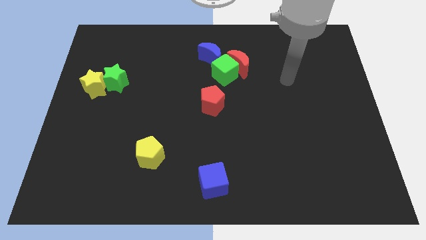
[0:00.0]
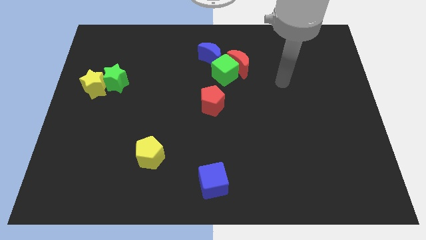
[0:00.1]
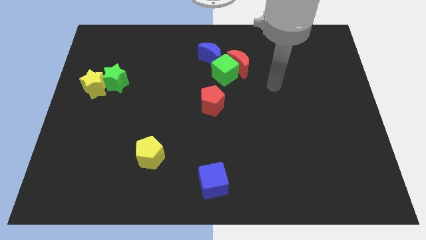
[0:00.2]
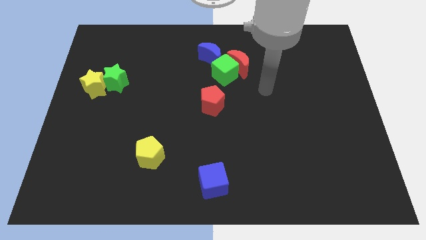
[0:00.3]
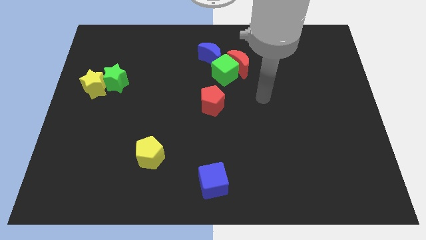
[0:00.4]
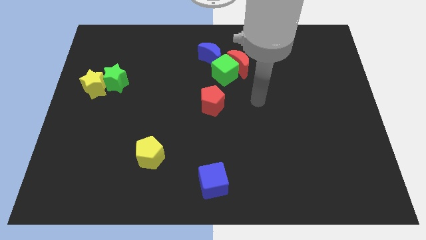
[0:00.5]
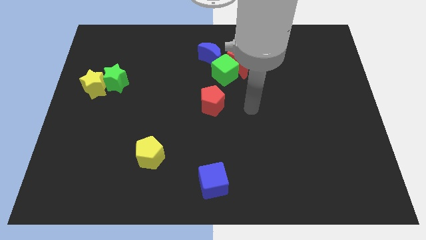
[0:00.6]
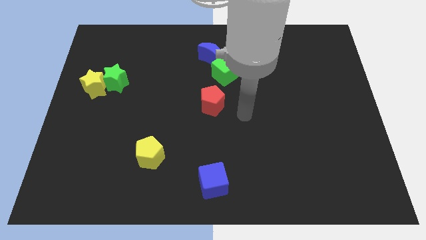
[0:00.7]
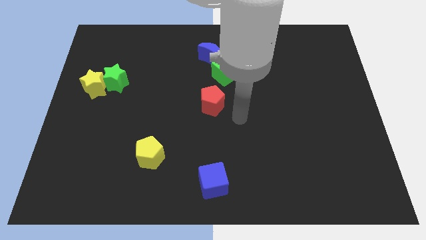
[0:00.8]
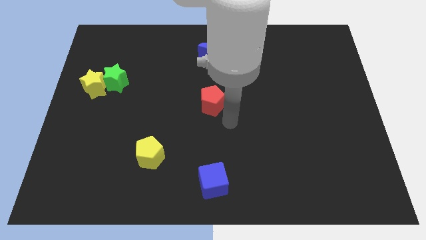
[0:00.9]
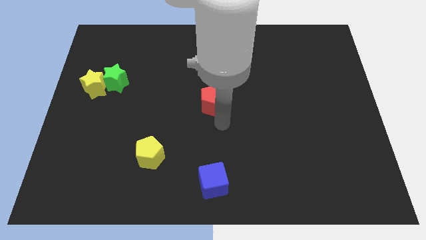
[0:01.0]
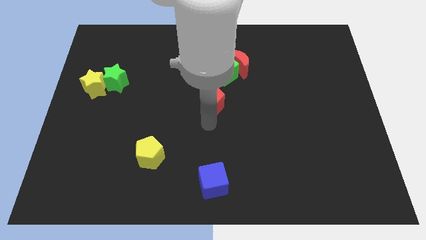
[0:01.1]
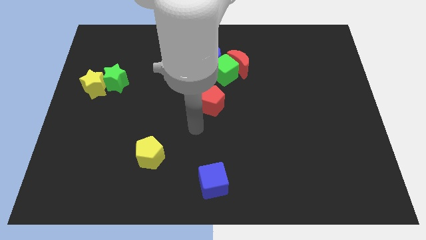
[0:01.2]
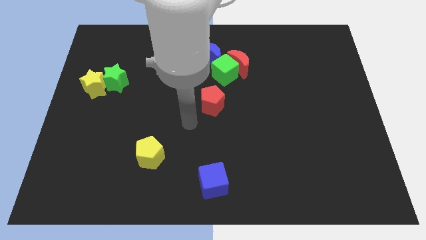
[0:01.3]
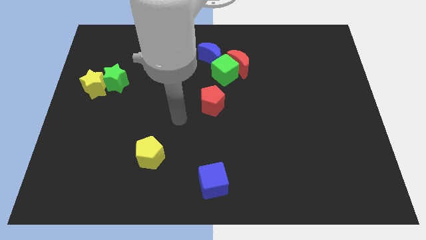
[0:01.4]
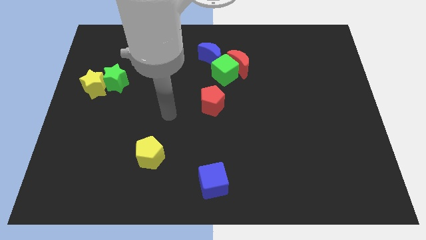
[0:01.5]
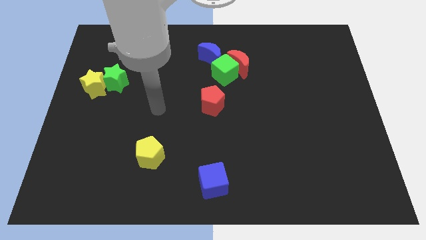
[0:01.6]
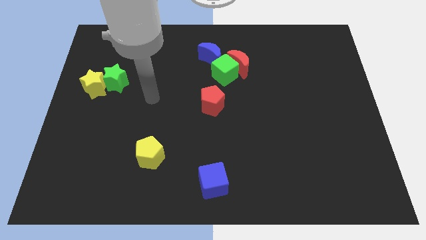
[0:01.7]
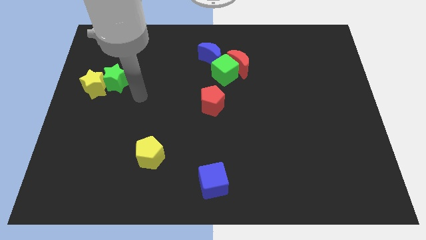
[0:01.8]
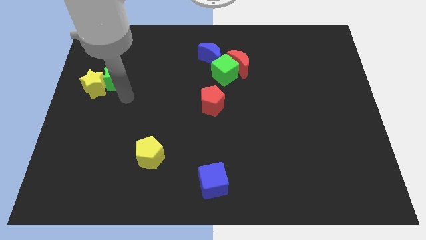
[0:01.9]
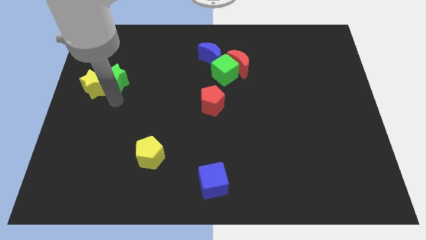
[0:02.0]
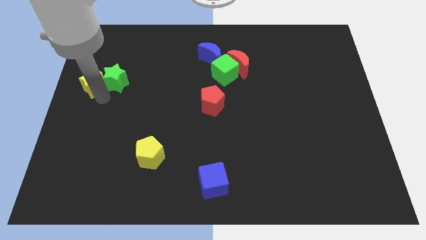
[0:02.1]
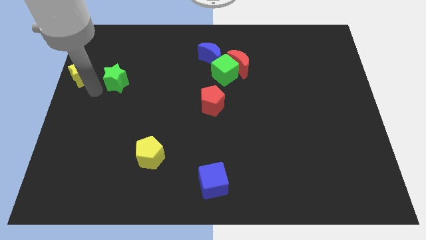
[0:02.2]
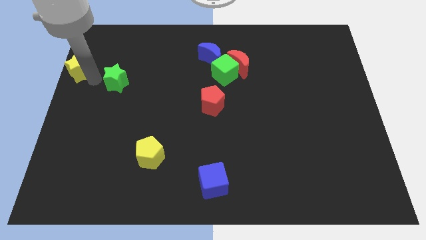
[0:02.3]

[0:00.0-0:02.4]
move the green star away from the yellow star

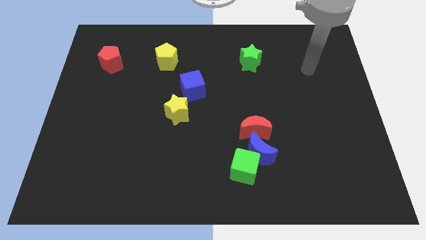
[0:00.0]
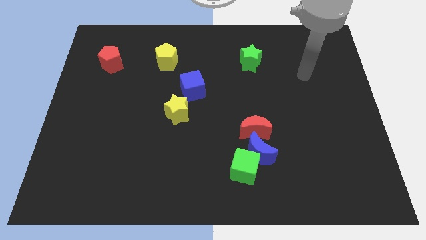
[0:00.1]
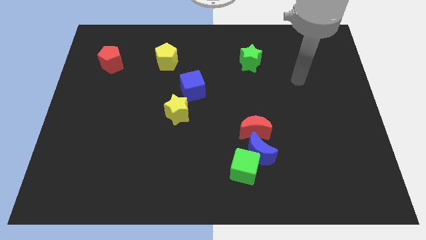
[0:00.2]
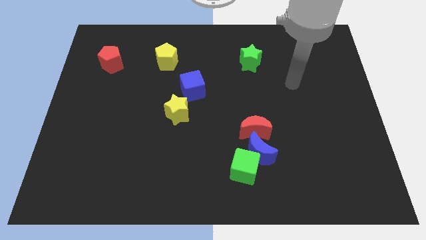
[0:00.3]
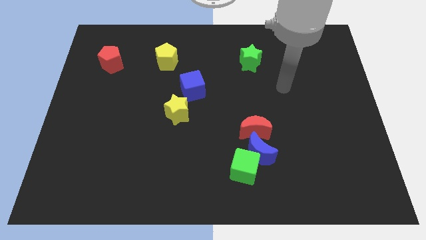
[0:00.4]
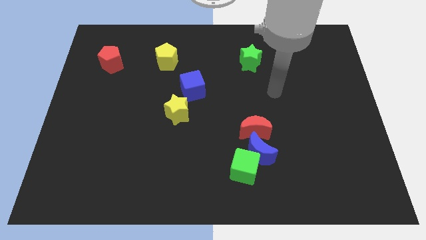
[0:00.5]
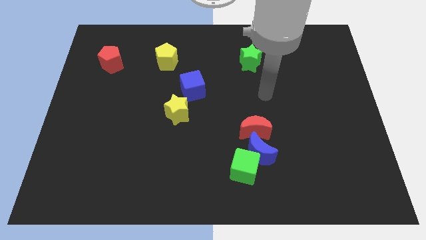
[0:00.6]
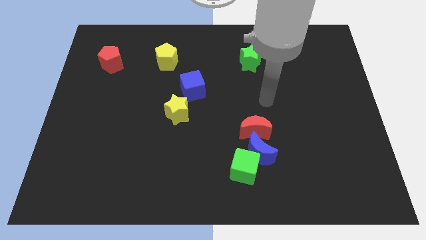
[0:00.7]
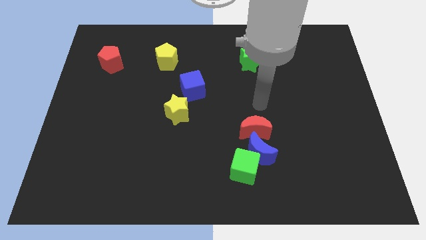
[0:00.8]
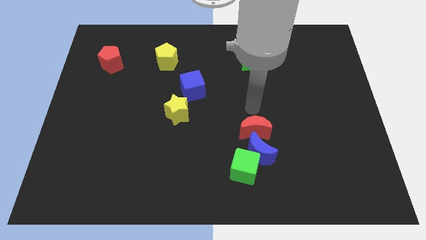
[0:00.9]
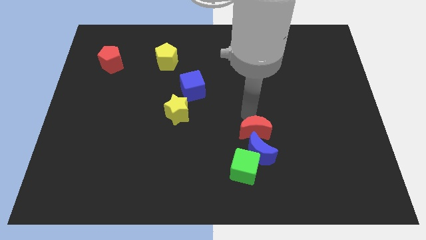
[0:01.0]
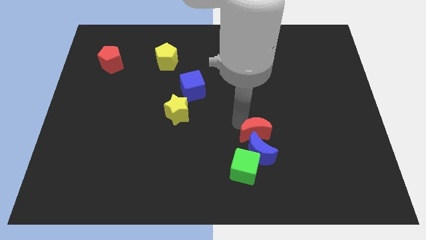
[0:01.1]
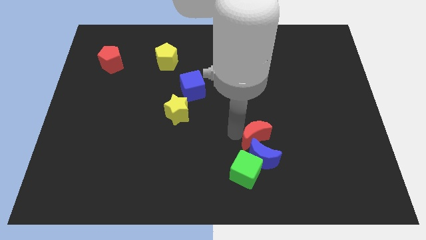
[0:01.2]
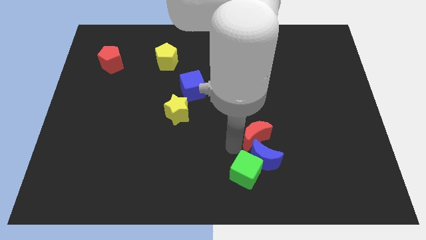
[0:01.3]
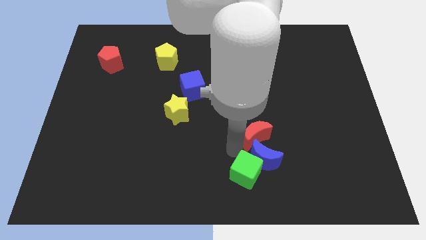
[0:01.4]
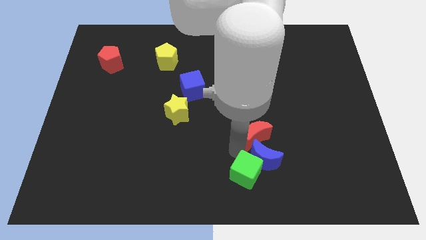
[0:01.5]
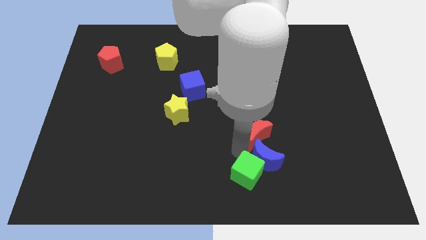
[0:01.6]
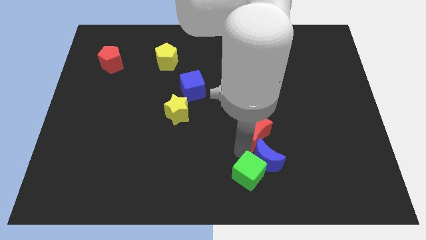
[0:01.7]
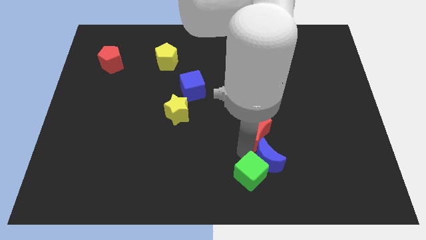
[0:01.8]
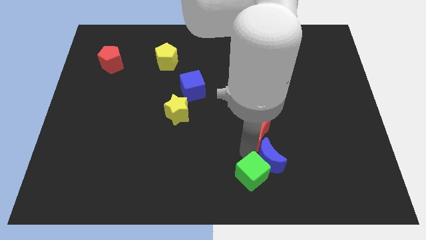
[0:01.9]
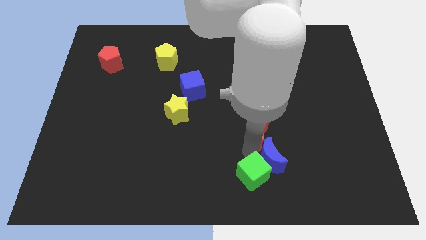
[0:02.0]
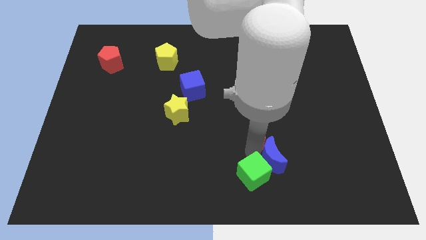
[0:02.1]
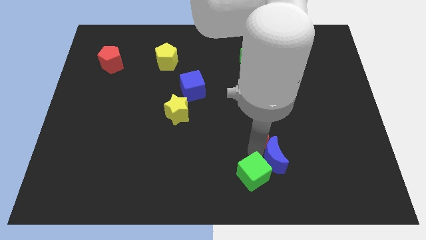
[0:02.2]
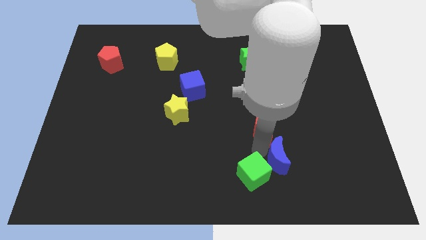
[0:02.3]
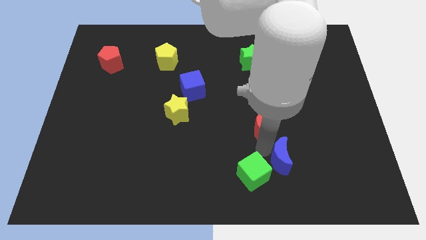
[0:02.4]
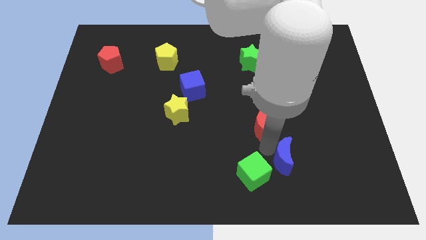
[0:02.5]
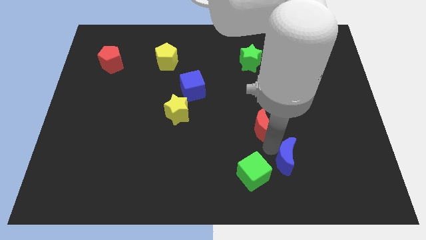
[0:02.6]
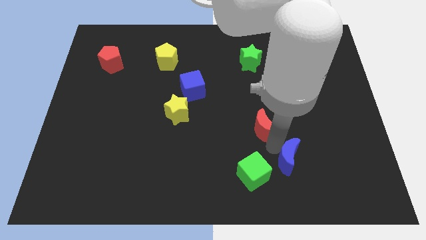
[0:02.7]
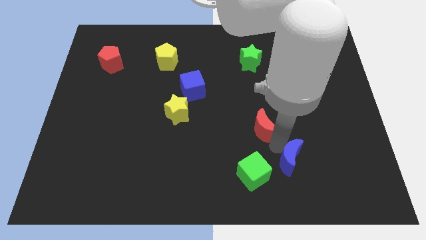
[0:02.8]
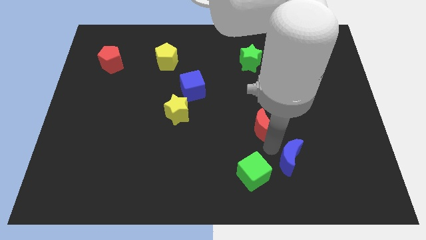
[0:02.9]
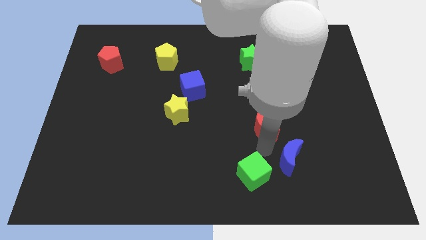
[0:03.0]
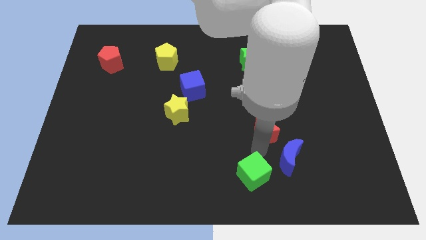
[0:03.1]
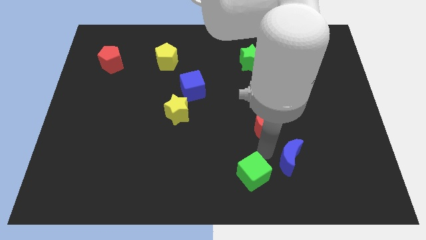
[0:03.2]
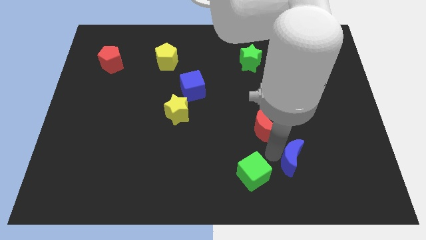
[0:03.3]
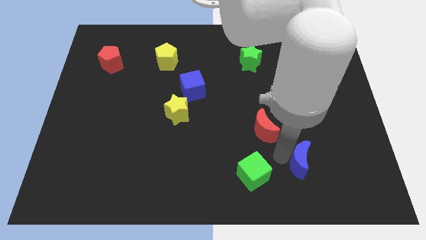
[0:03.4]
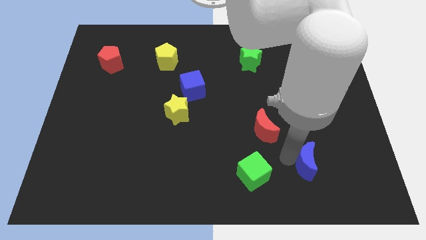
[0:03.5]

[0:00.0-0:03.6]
move the blue moon away from the green cube and red moon

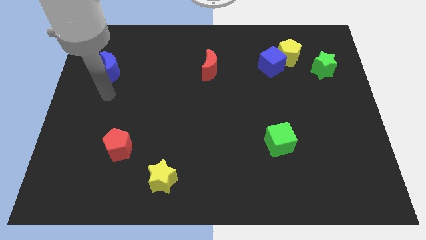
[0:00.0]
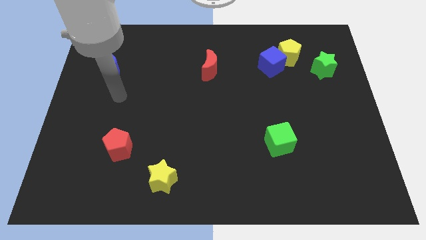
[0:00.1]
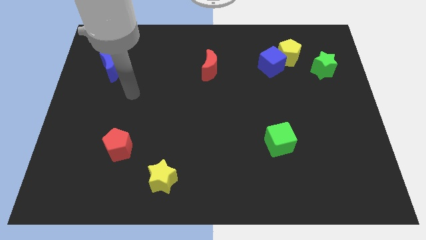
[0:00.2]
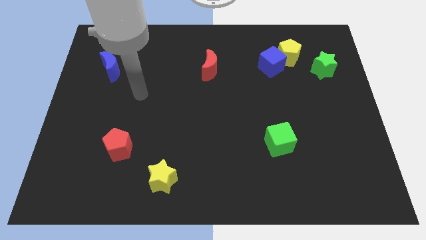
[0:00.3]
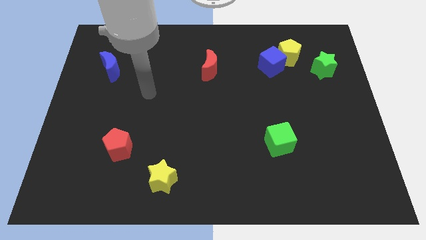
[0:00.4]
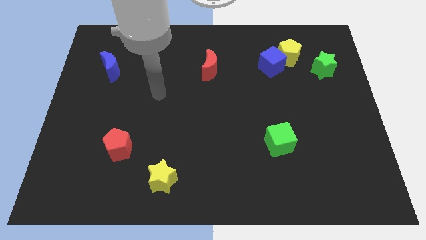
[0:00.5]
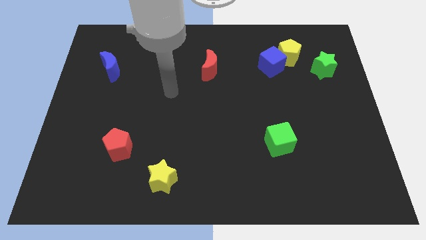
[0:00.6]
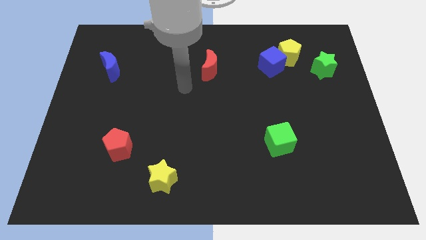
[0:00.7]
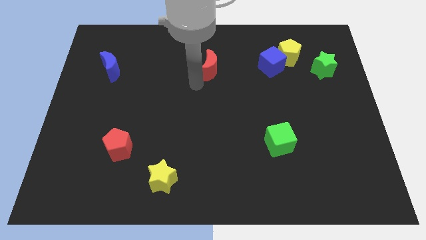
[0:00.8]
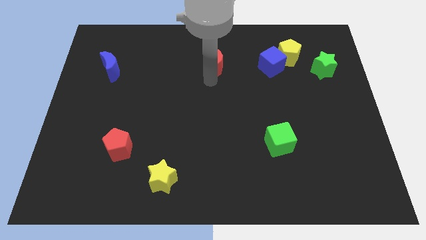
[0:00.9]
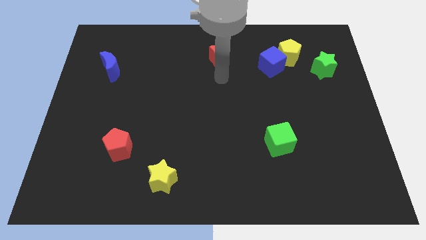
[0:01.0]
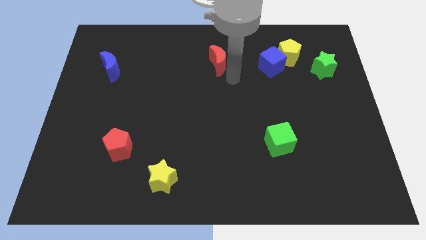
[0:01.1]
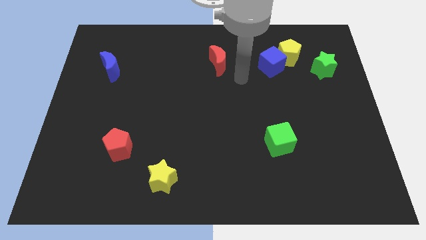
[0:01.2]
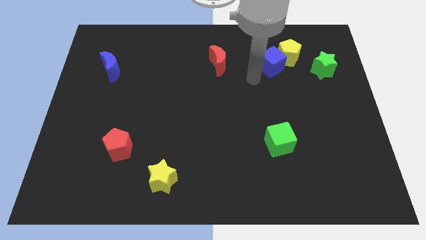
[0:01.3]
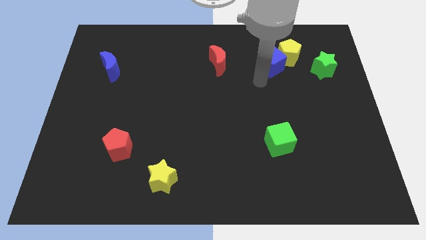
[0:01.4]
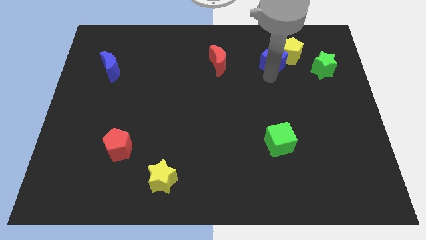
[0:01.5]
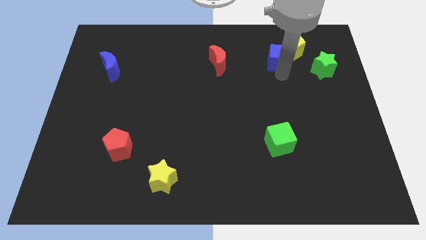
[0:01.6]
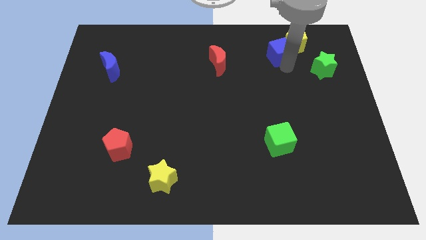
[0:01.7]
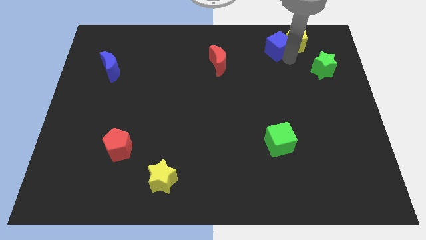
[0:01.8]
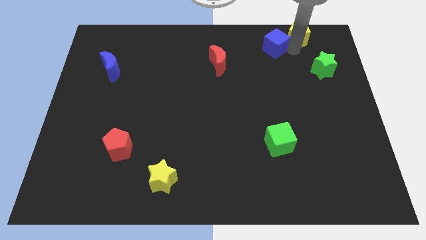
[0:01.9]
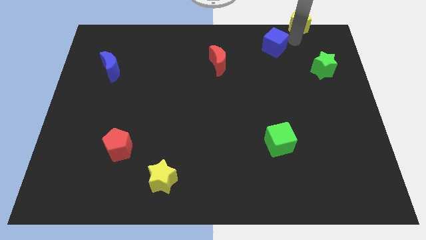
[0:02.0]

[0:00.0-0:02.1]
move the blue cube away from the yellow pentagon

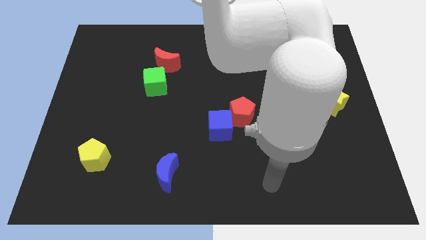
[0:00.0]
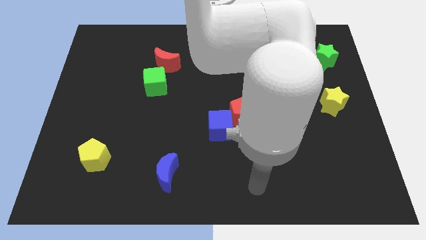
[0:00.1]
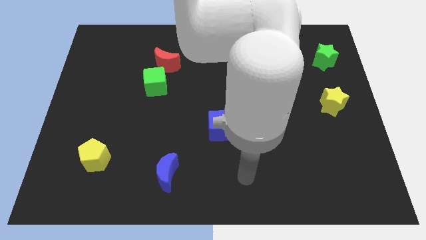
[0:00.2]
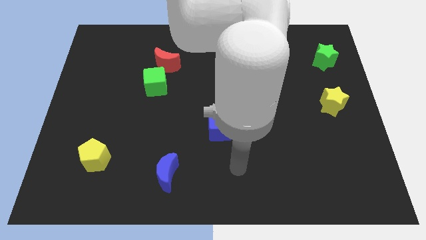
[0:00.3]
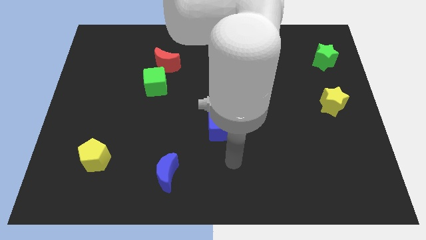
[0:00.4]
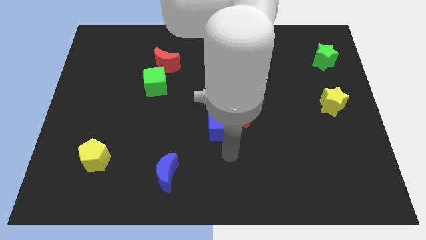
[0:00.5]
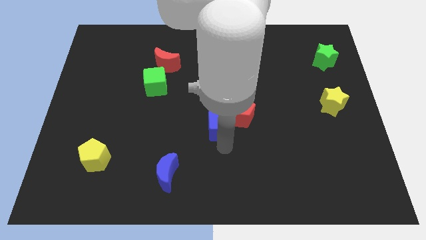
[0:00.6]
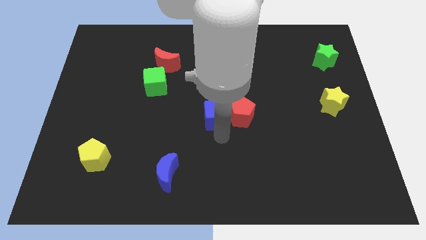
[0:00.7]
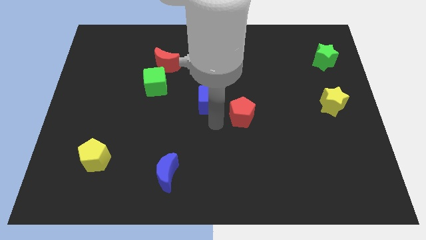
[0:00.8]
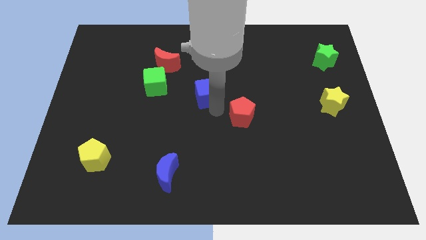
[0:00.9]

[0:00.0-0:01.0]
move the red pentagon away from the blue cube

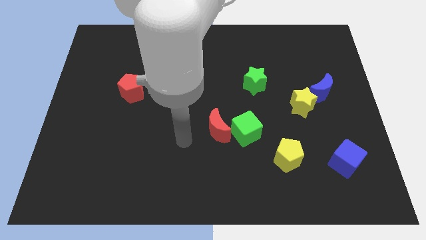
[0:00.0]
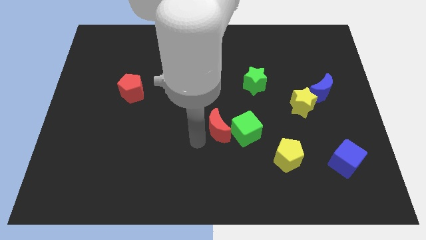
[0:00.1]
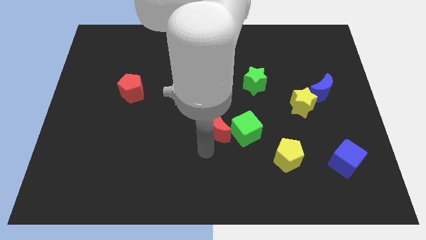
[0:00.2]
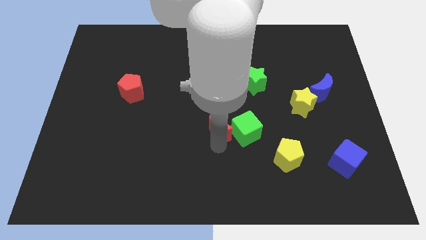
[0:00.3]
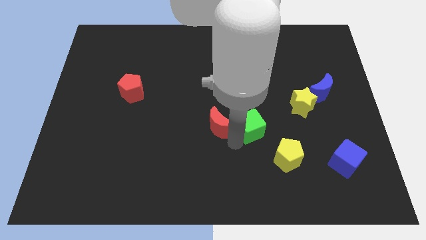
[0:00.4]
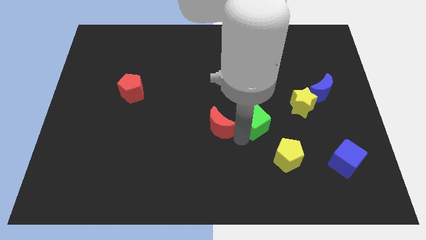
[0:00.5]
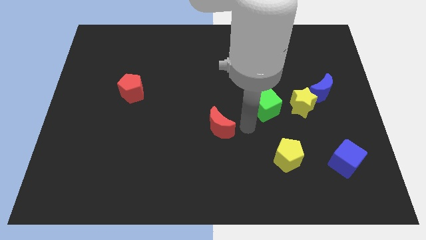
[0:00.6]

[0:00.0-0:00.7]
separate the red moon from the green cube
